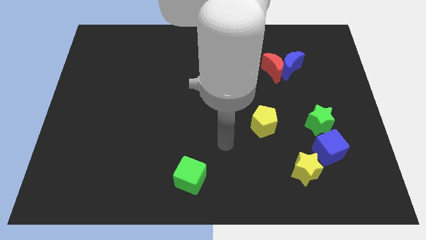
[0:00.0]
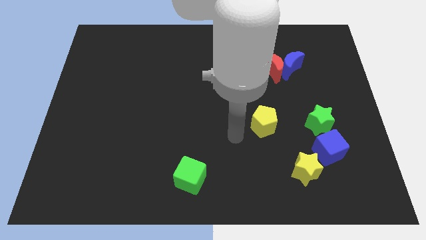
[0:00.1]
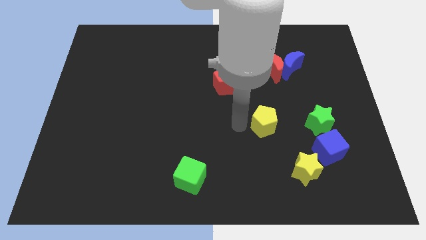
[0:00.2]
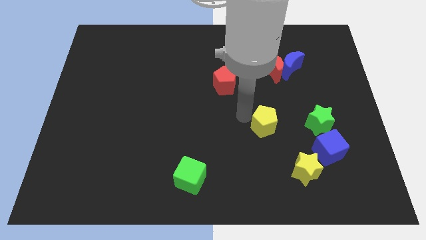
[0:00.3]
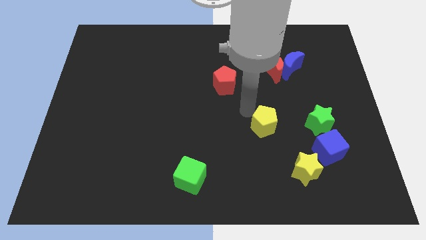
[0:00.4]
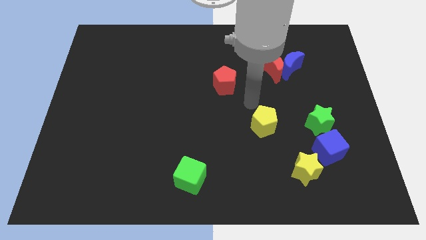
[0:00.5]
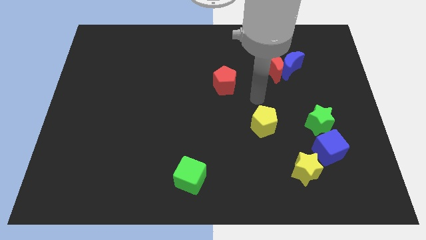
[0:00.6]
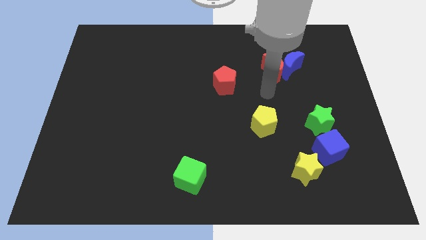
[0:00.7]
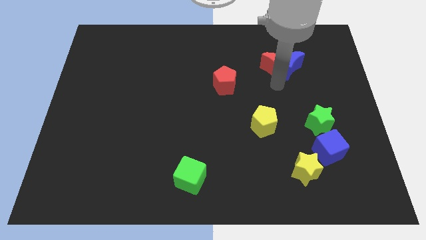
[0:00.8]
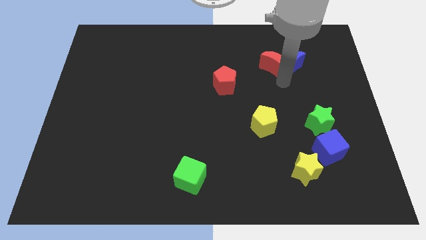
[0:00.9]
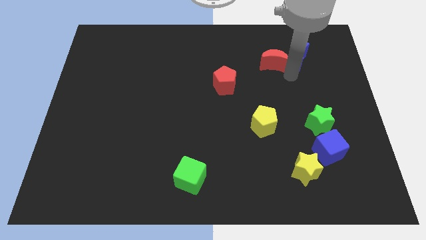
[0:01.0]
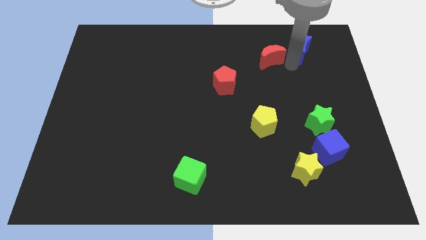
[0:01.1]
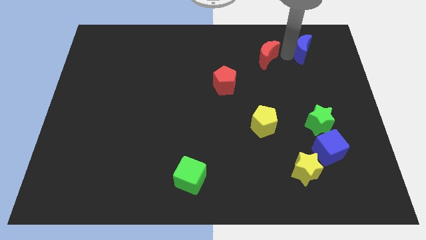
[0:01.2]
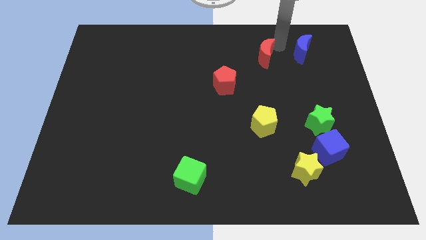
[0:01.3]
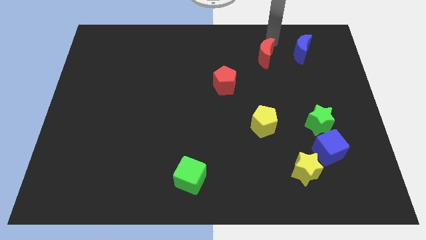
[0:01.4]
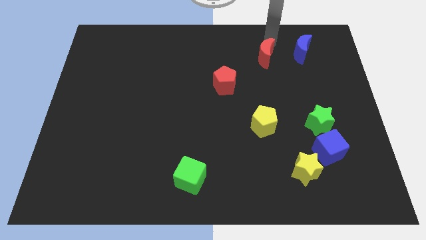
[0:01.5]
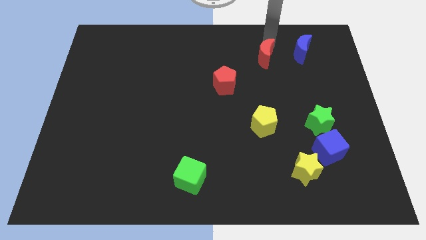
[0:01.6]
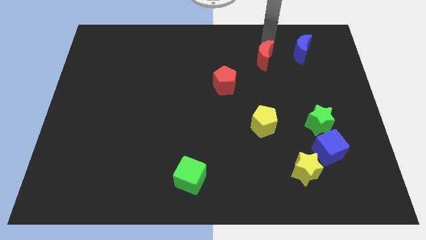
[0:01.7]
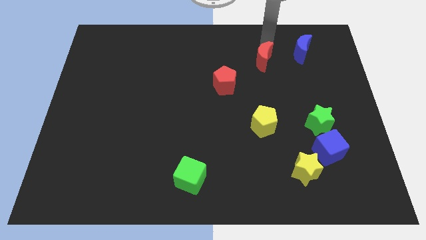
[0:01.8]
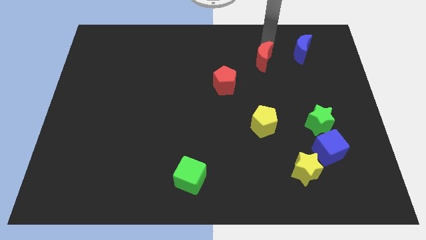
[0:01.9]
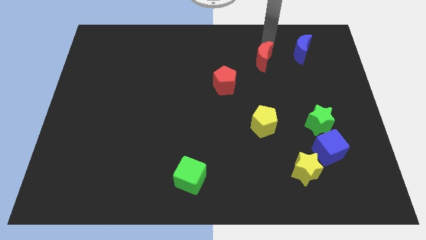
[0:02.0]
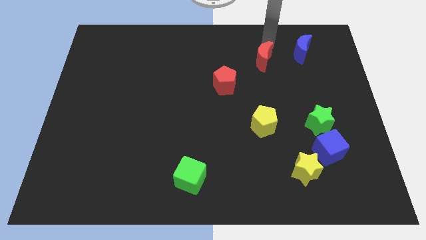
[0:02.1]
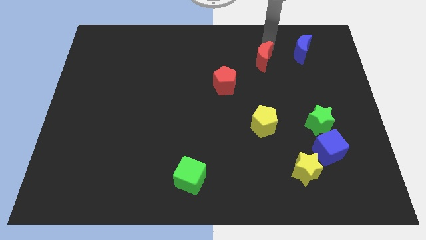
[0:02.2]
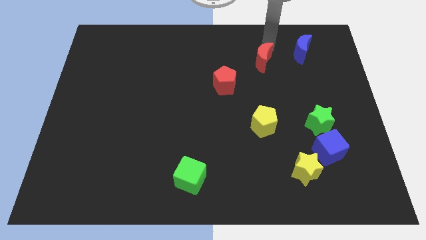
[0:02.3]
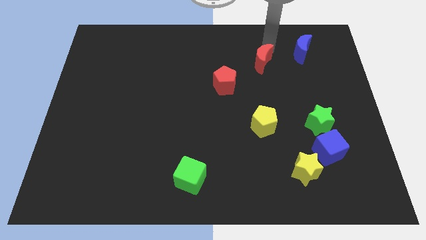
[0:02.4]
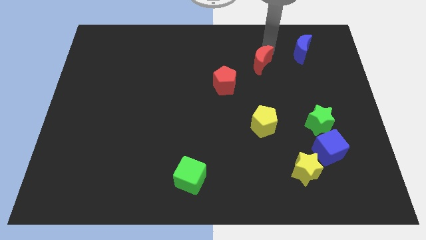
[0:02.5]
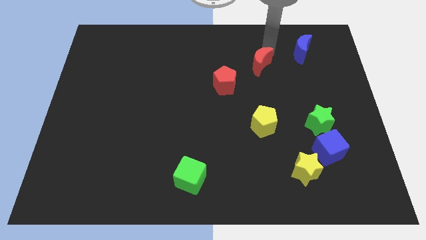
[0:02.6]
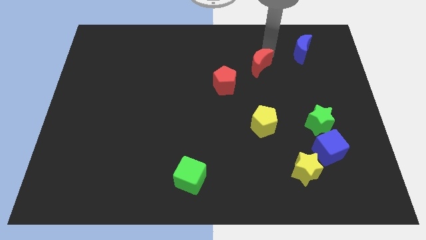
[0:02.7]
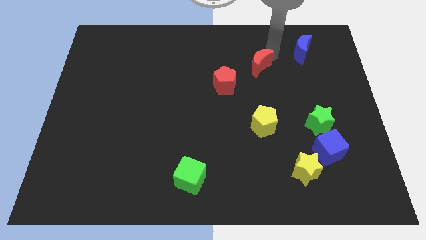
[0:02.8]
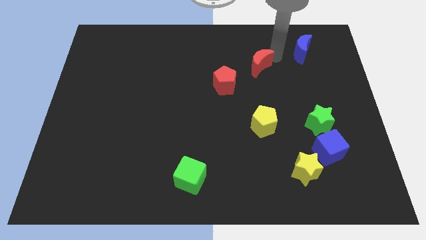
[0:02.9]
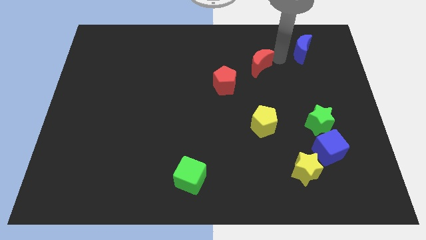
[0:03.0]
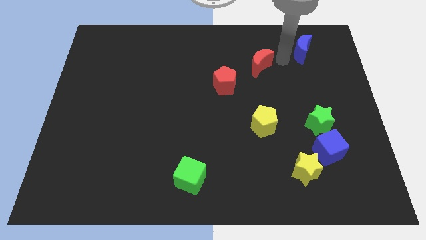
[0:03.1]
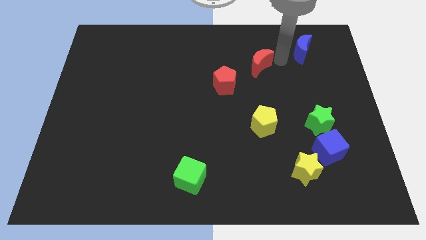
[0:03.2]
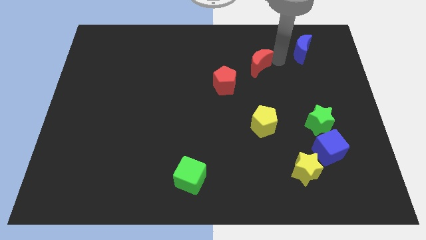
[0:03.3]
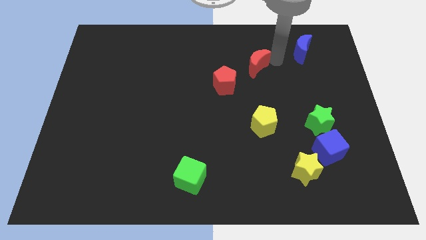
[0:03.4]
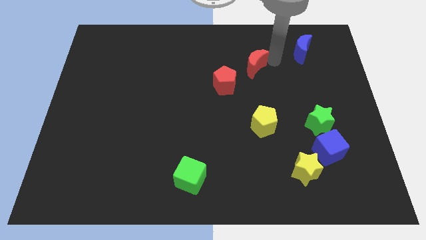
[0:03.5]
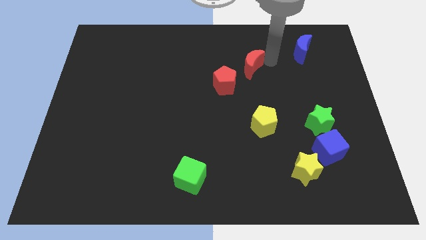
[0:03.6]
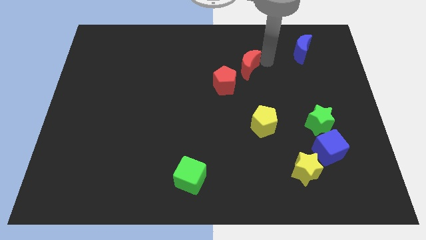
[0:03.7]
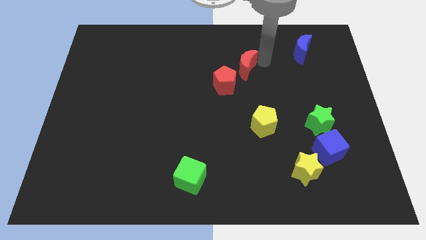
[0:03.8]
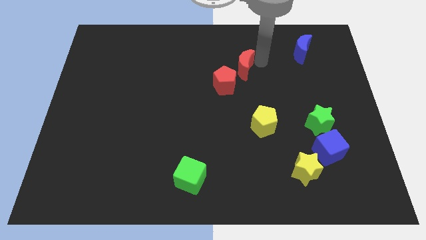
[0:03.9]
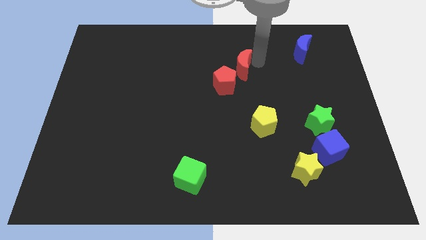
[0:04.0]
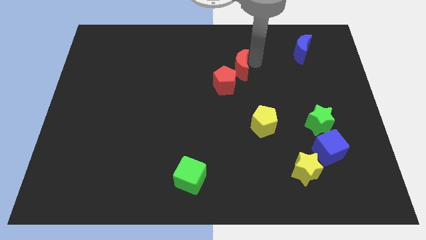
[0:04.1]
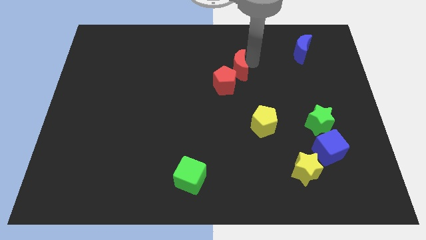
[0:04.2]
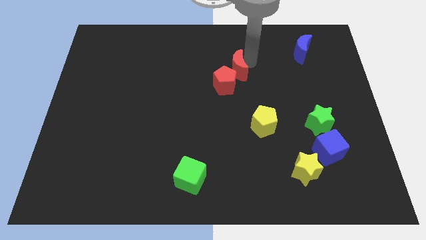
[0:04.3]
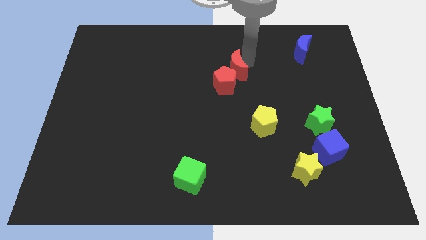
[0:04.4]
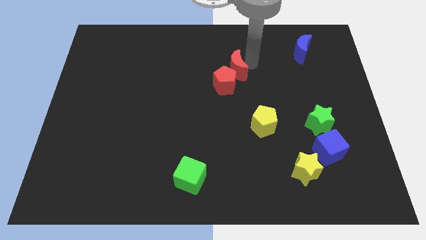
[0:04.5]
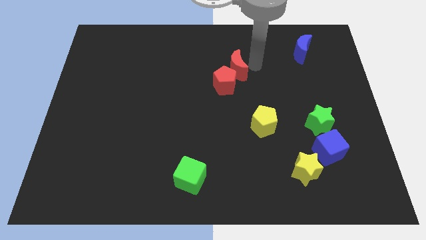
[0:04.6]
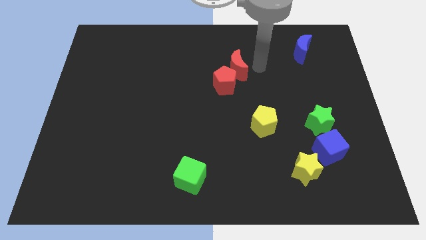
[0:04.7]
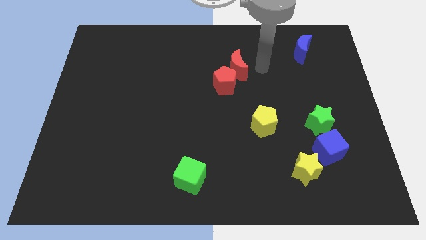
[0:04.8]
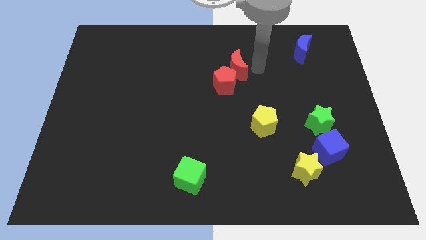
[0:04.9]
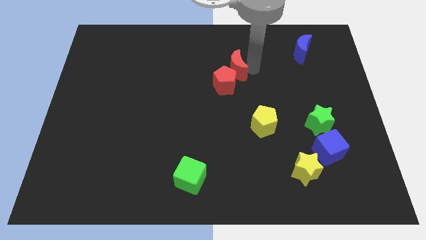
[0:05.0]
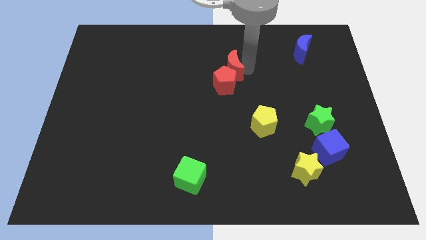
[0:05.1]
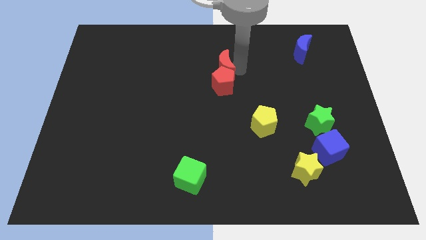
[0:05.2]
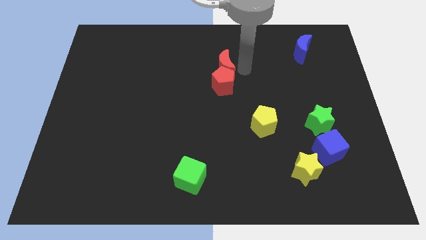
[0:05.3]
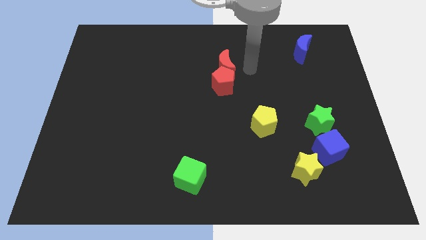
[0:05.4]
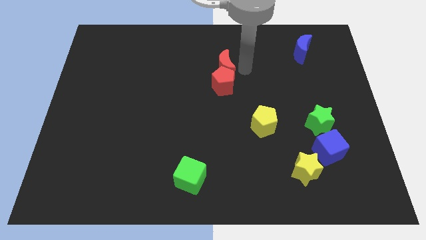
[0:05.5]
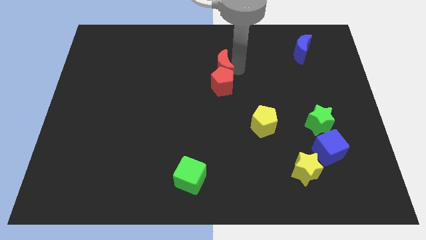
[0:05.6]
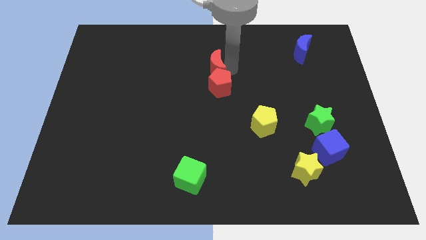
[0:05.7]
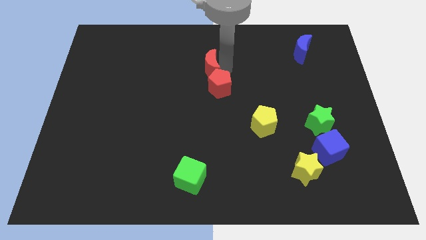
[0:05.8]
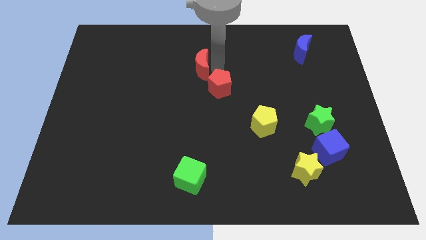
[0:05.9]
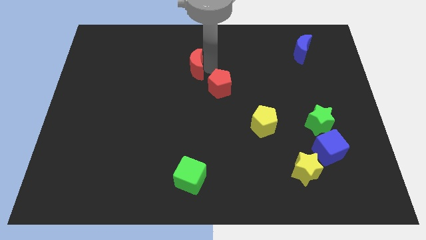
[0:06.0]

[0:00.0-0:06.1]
push the red moon to the left

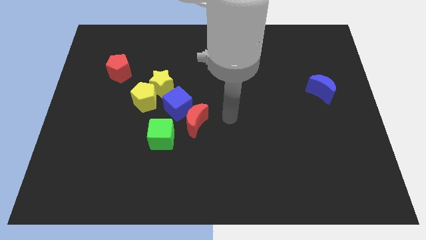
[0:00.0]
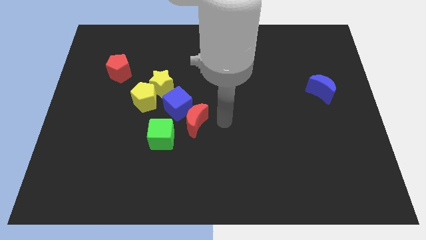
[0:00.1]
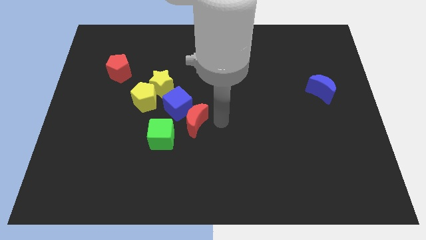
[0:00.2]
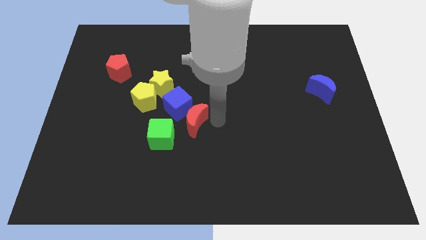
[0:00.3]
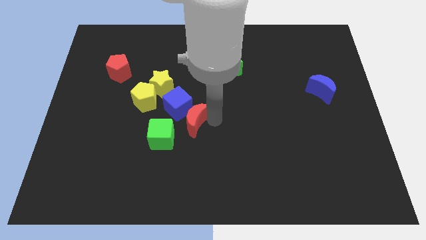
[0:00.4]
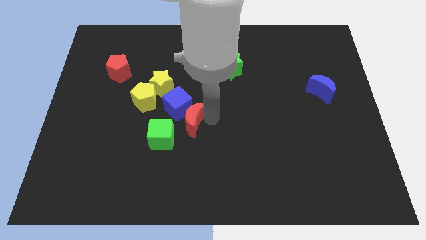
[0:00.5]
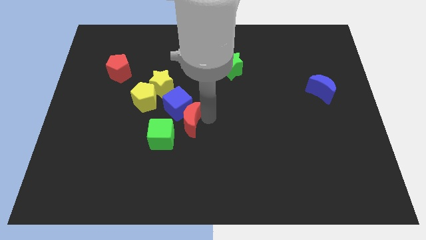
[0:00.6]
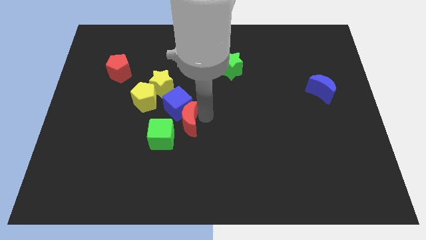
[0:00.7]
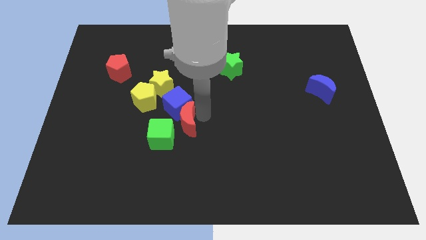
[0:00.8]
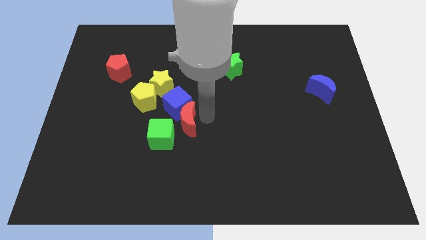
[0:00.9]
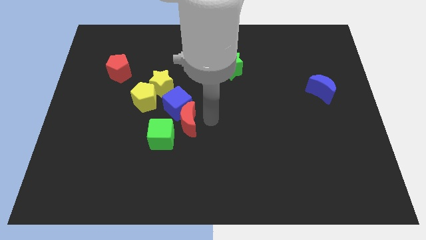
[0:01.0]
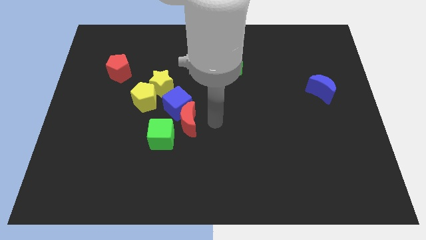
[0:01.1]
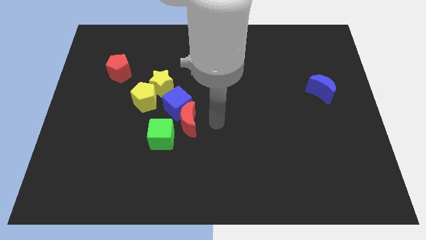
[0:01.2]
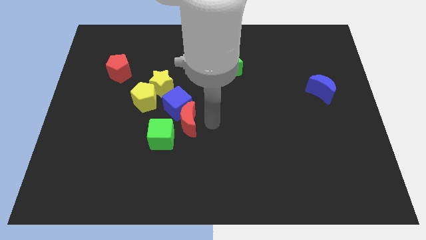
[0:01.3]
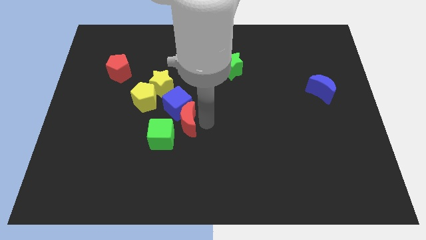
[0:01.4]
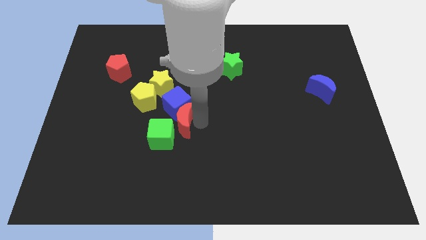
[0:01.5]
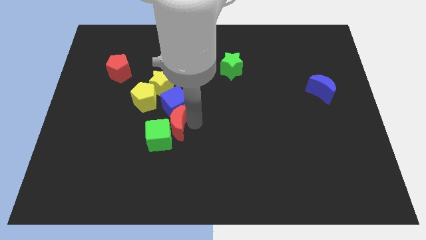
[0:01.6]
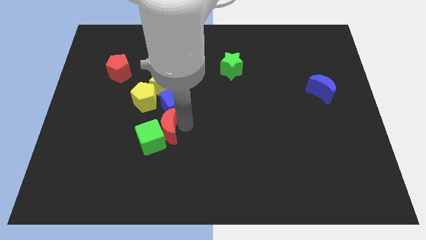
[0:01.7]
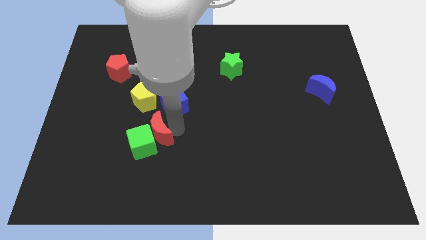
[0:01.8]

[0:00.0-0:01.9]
push the red moon a little bit to the left
